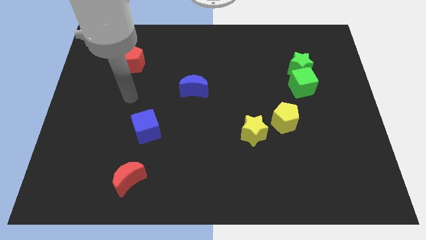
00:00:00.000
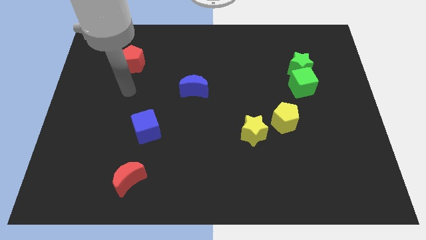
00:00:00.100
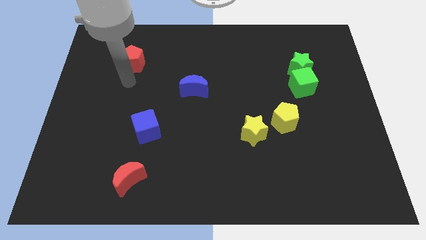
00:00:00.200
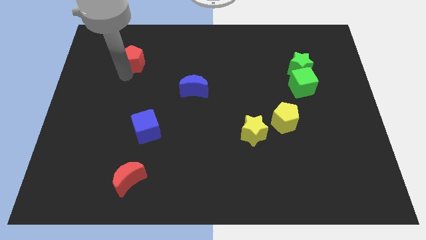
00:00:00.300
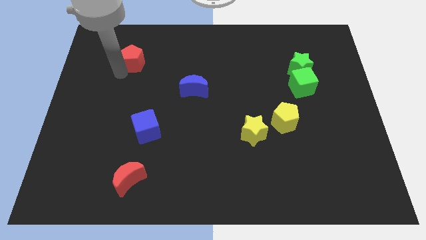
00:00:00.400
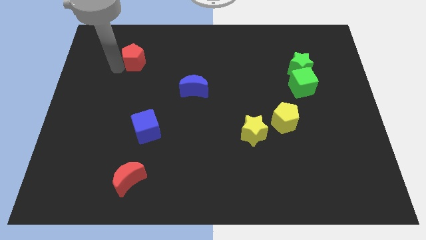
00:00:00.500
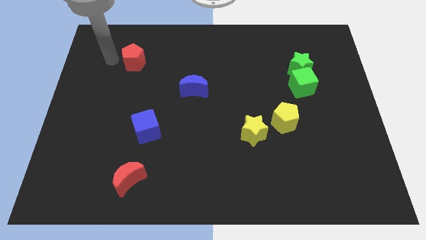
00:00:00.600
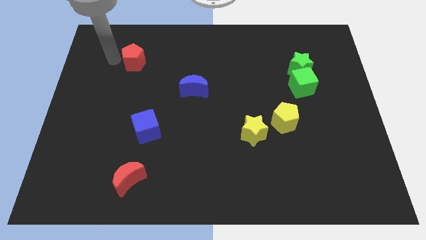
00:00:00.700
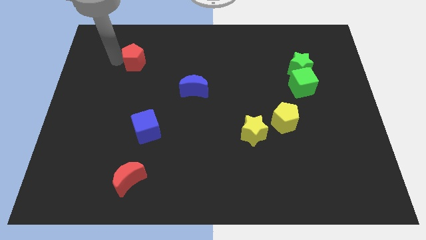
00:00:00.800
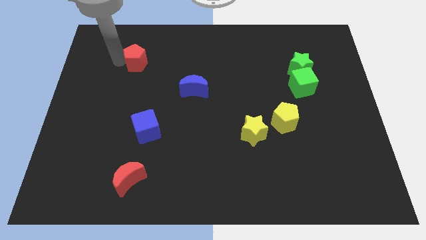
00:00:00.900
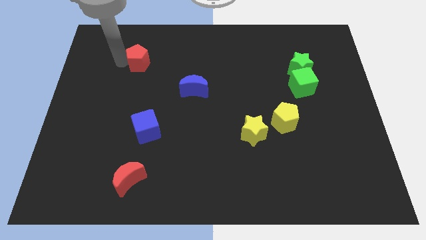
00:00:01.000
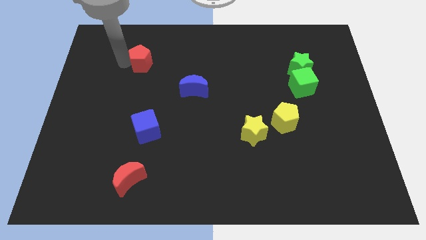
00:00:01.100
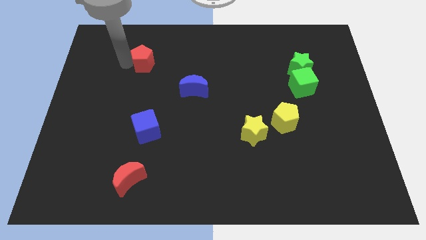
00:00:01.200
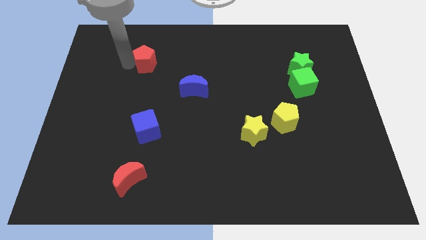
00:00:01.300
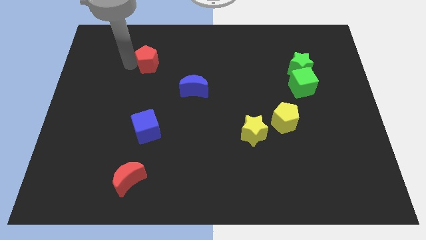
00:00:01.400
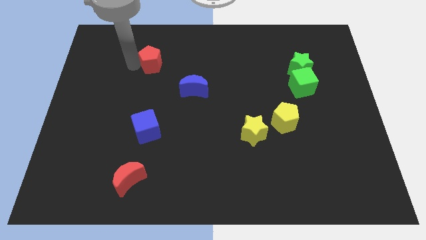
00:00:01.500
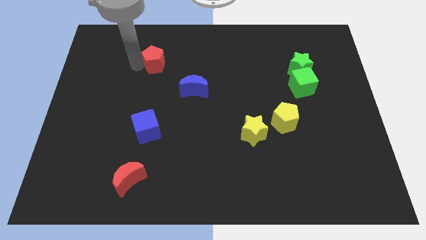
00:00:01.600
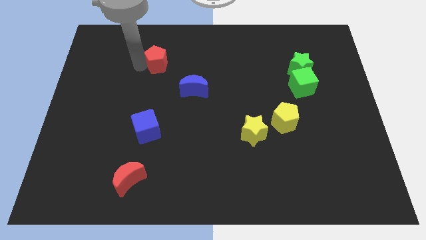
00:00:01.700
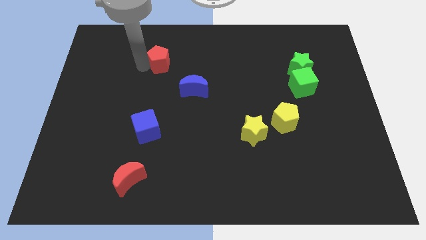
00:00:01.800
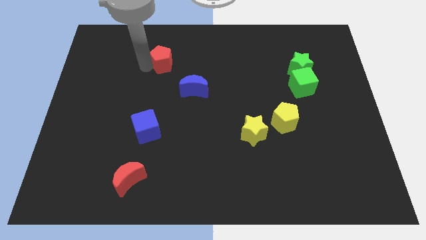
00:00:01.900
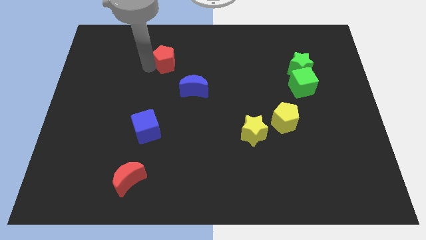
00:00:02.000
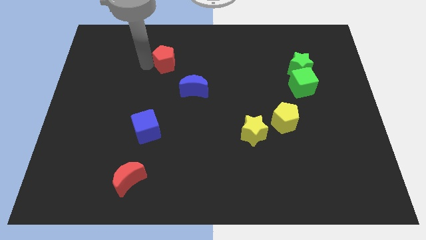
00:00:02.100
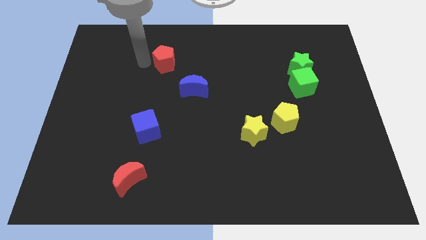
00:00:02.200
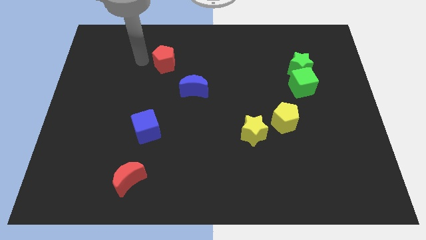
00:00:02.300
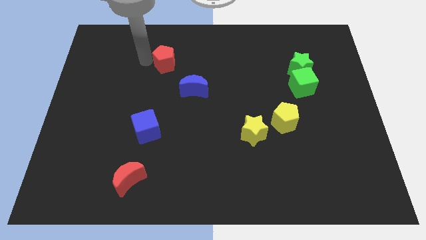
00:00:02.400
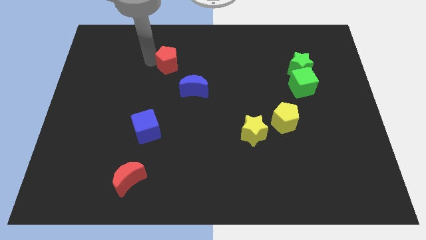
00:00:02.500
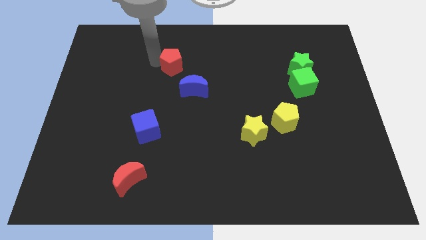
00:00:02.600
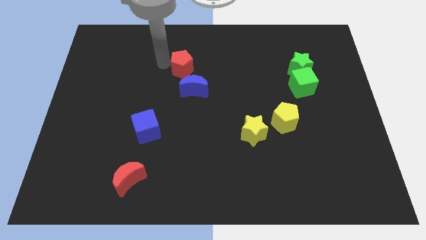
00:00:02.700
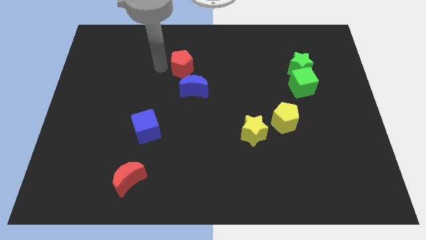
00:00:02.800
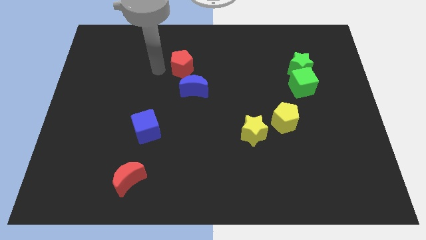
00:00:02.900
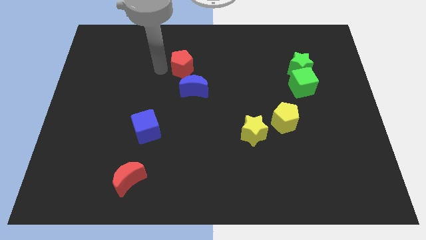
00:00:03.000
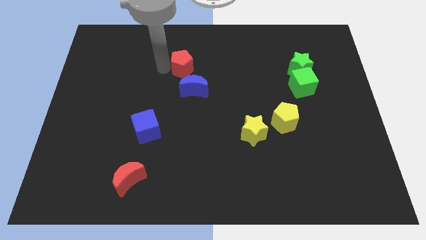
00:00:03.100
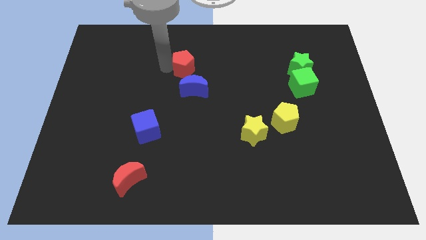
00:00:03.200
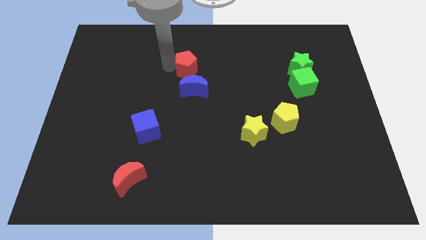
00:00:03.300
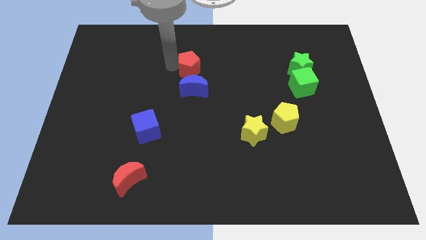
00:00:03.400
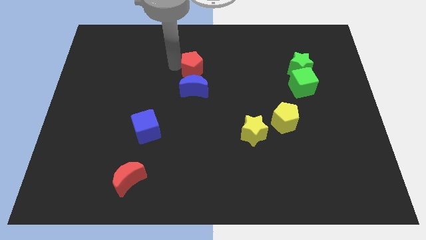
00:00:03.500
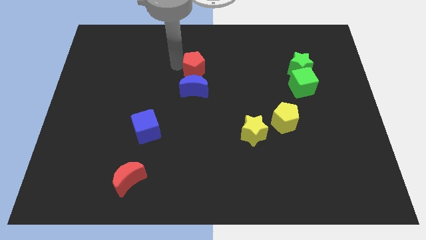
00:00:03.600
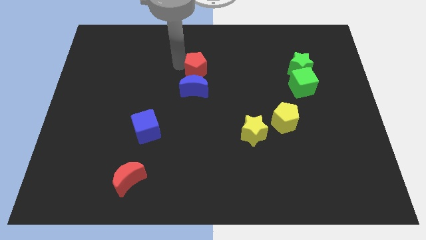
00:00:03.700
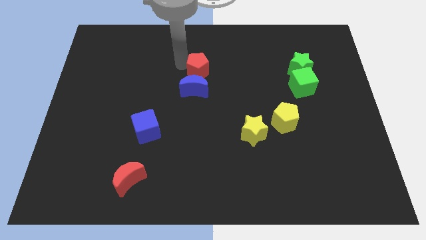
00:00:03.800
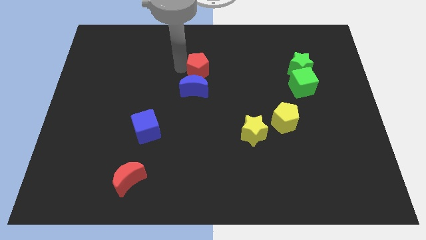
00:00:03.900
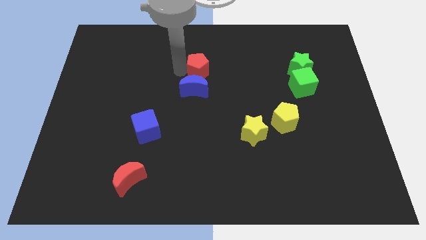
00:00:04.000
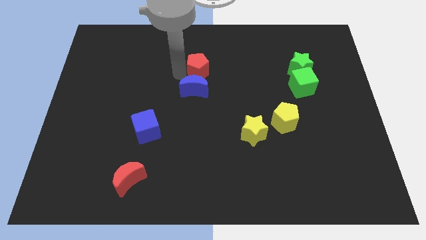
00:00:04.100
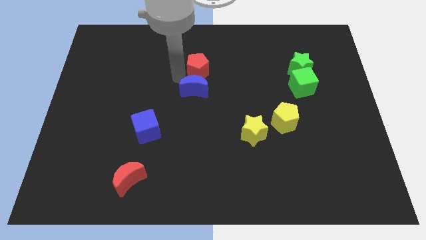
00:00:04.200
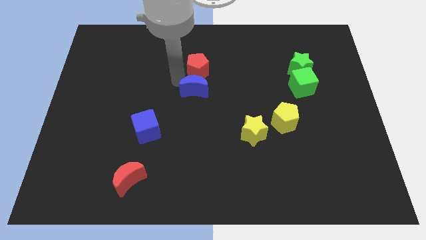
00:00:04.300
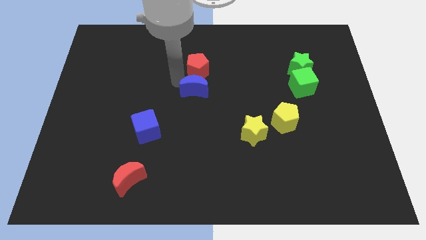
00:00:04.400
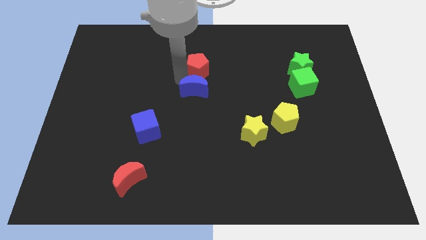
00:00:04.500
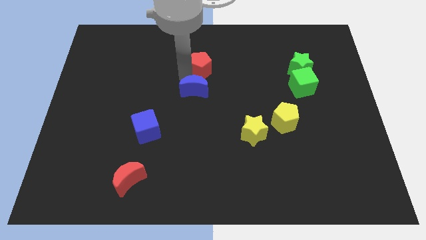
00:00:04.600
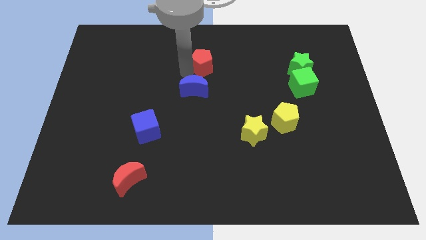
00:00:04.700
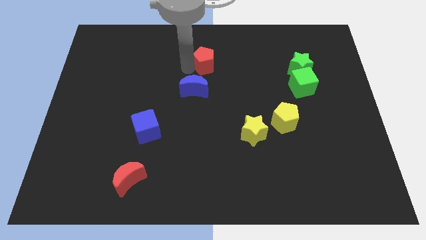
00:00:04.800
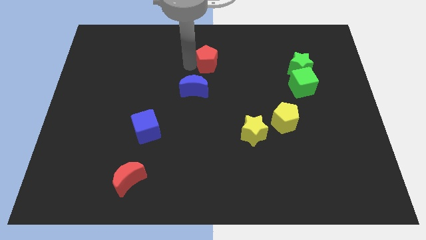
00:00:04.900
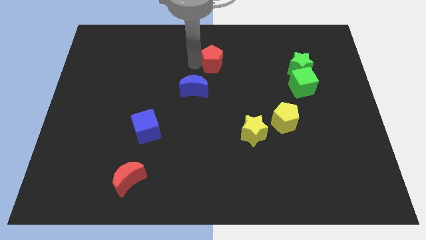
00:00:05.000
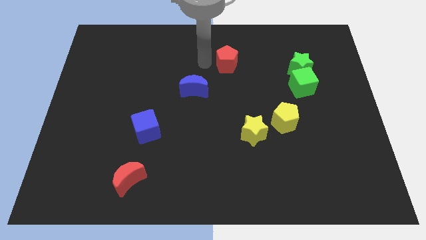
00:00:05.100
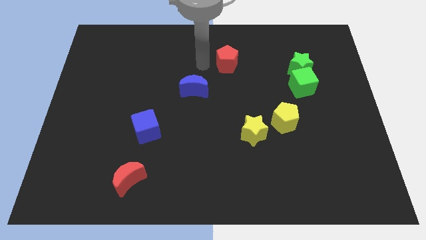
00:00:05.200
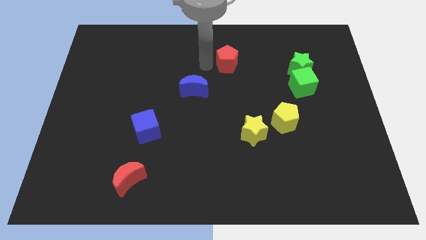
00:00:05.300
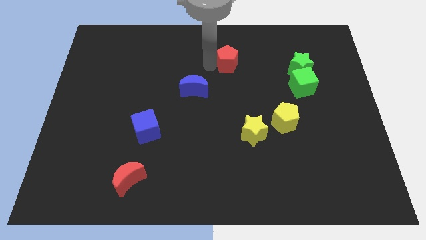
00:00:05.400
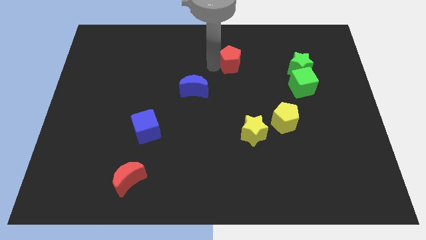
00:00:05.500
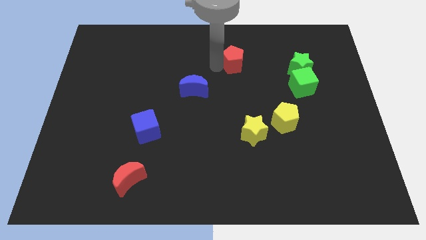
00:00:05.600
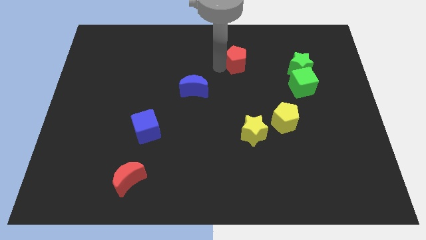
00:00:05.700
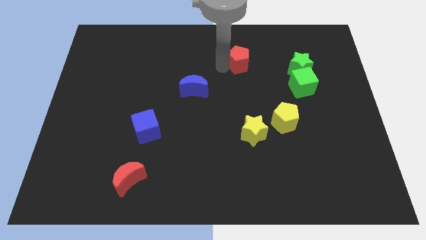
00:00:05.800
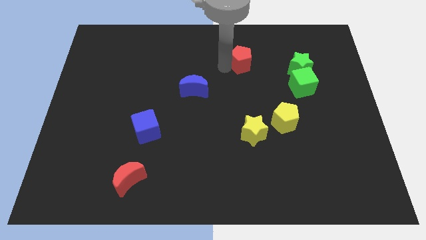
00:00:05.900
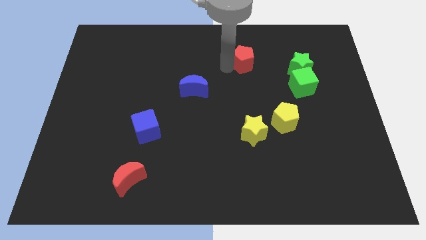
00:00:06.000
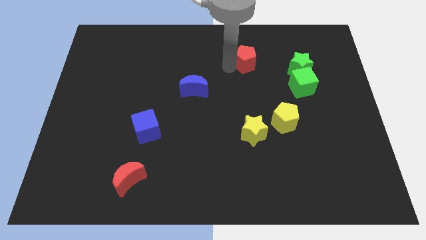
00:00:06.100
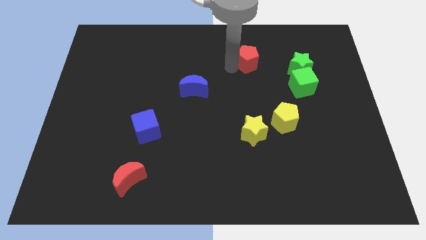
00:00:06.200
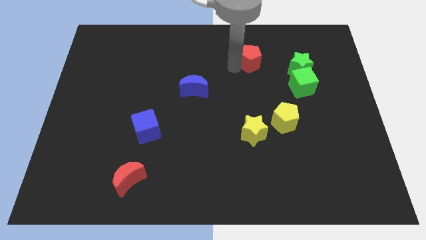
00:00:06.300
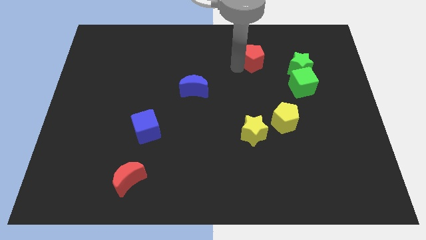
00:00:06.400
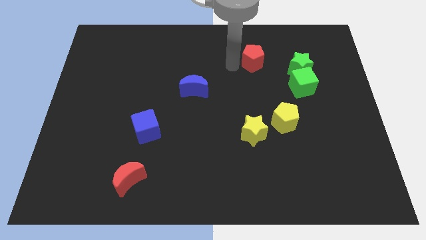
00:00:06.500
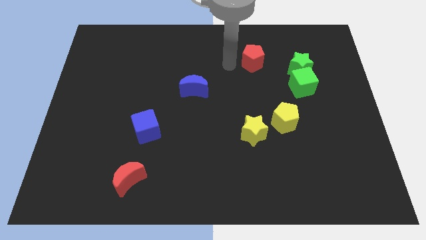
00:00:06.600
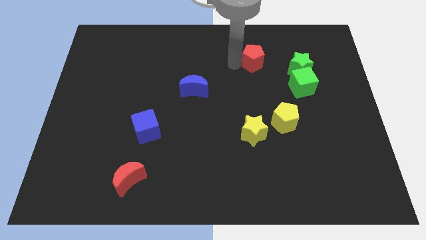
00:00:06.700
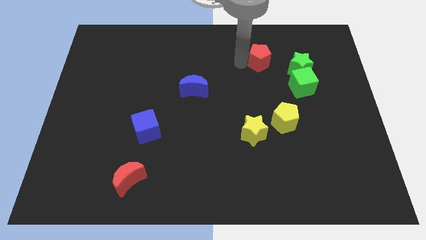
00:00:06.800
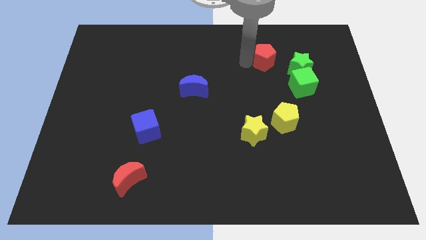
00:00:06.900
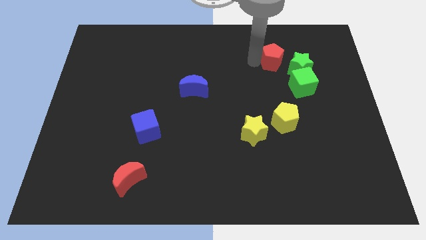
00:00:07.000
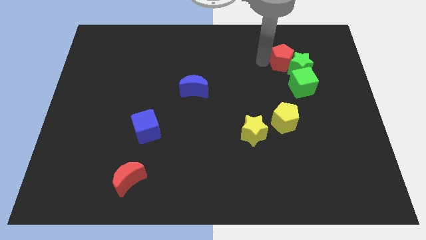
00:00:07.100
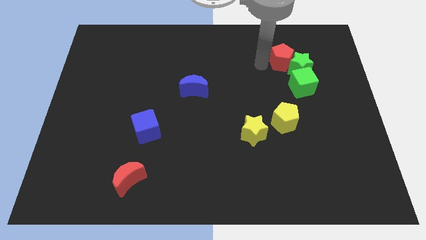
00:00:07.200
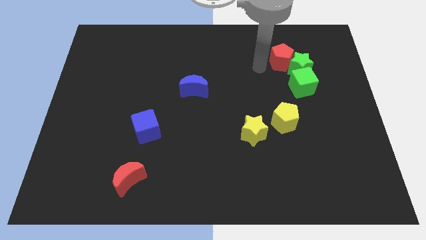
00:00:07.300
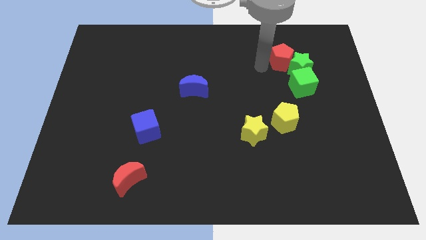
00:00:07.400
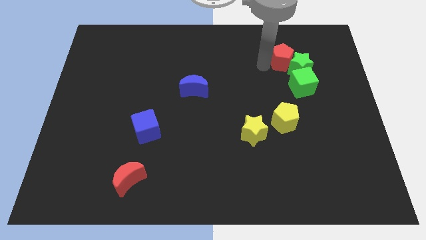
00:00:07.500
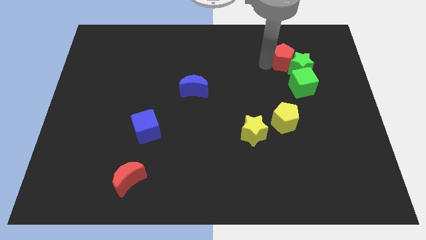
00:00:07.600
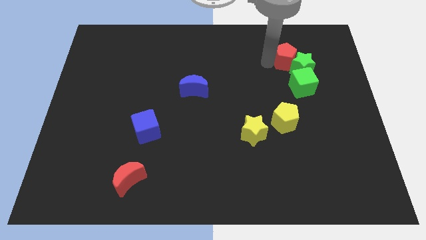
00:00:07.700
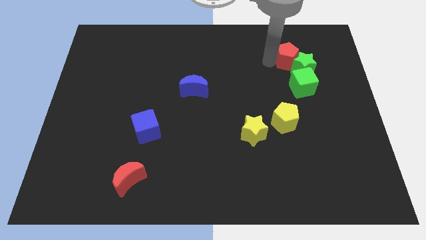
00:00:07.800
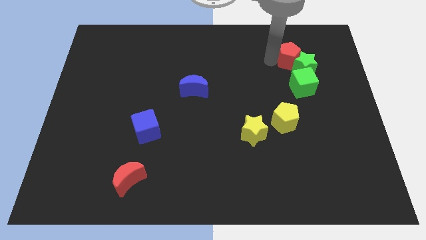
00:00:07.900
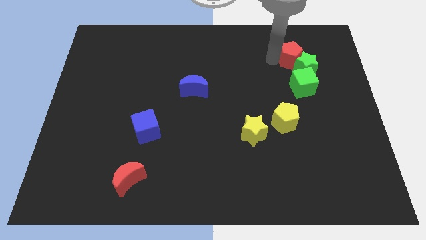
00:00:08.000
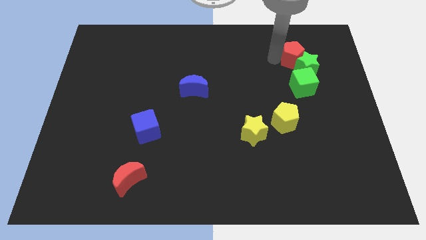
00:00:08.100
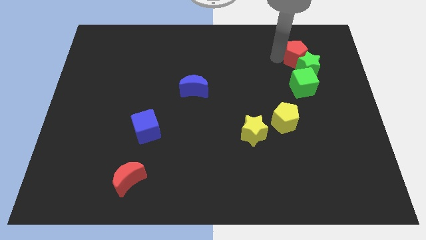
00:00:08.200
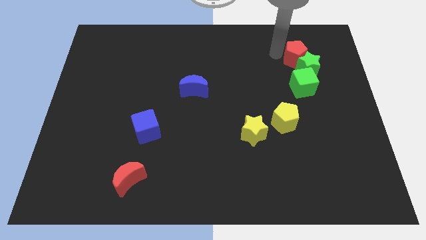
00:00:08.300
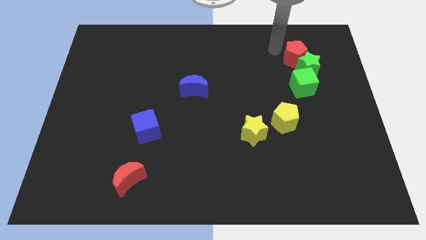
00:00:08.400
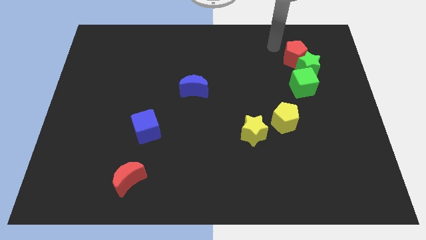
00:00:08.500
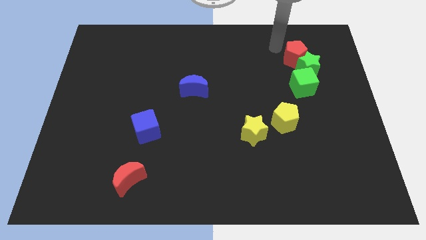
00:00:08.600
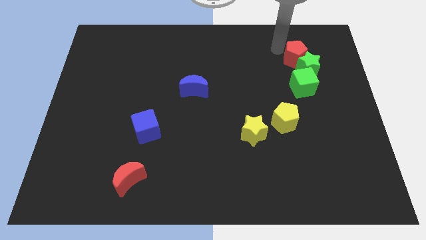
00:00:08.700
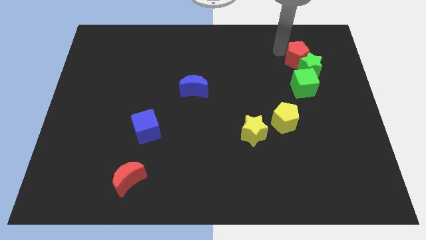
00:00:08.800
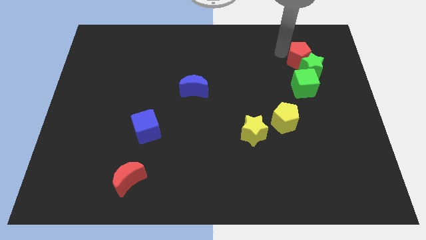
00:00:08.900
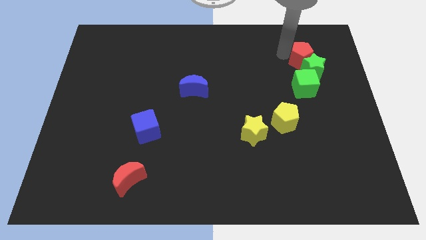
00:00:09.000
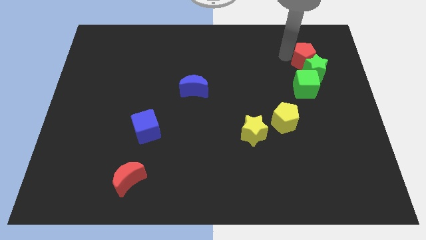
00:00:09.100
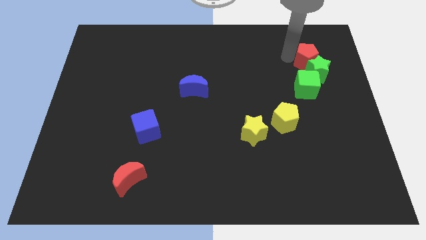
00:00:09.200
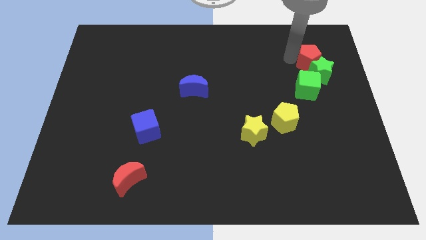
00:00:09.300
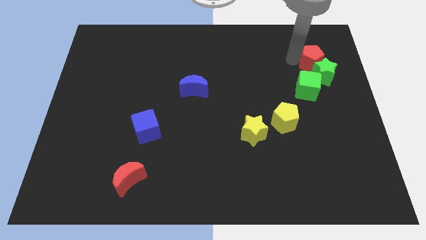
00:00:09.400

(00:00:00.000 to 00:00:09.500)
push the red pentagon diagonally up and to the right of the green cube
